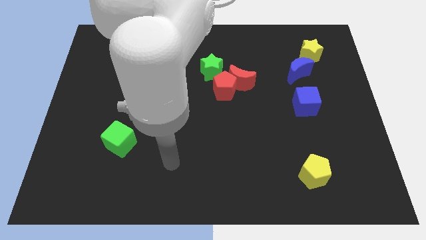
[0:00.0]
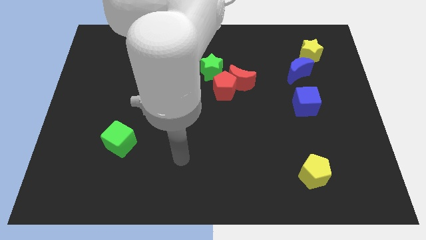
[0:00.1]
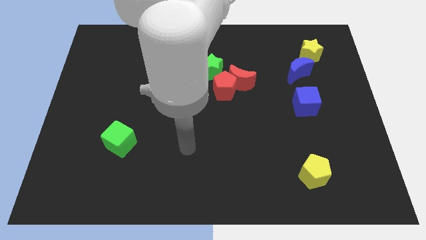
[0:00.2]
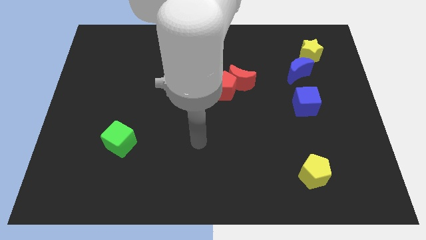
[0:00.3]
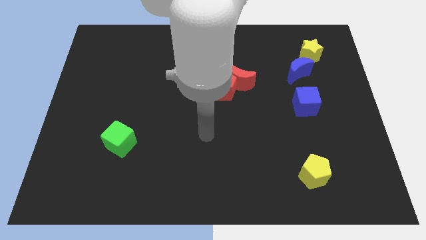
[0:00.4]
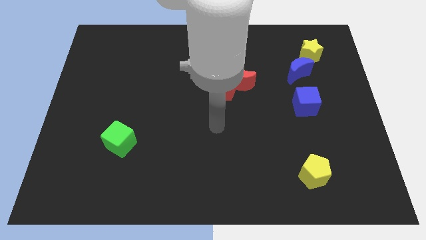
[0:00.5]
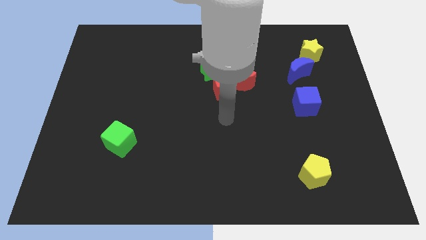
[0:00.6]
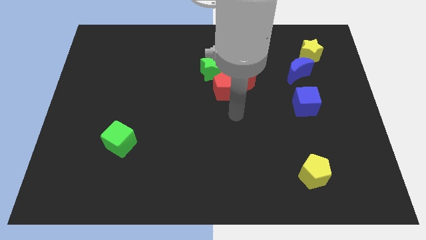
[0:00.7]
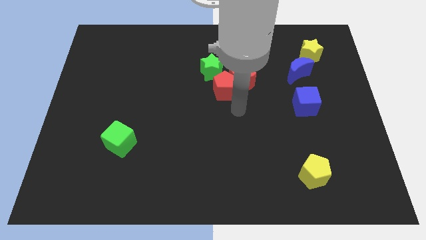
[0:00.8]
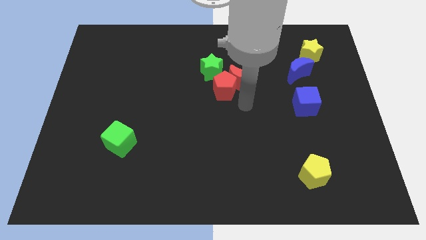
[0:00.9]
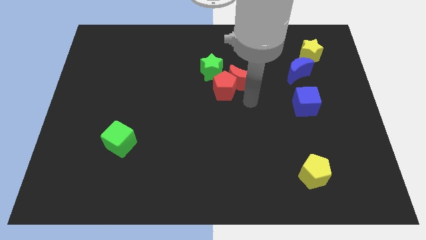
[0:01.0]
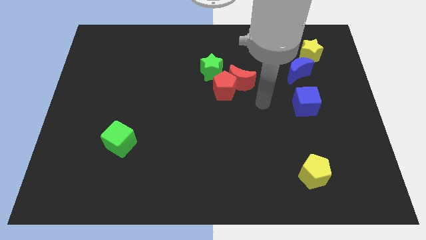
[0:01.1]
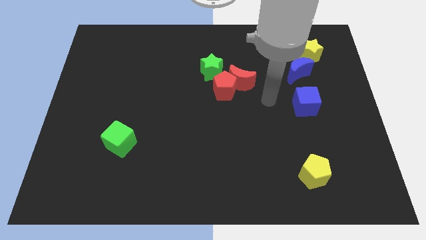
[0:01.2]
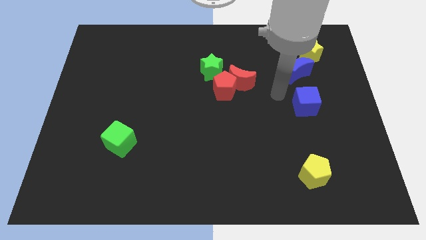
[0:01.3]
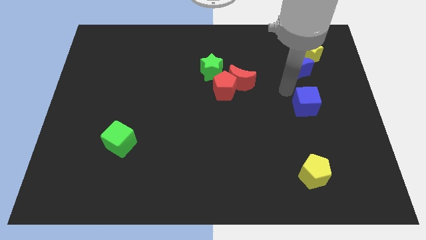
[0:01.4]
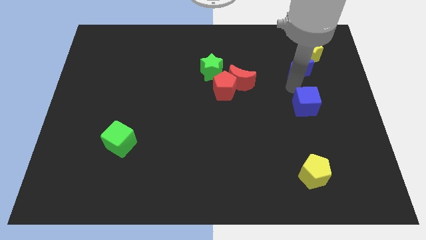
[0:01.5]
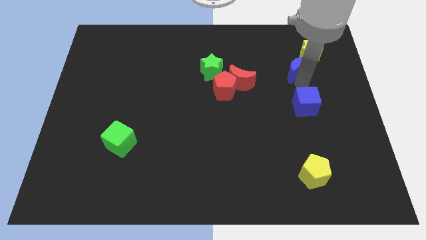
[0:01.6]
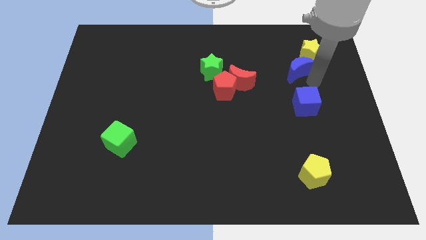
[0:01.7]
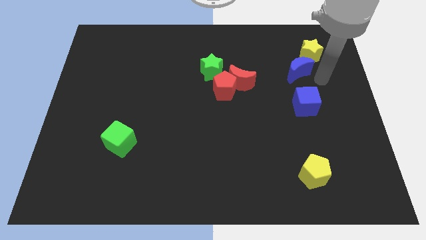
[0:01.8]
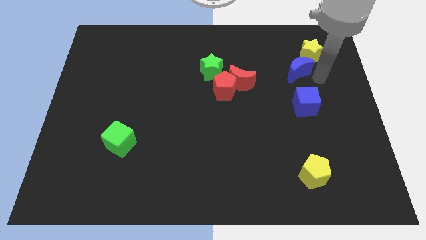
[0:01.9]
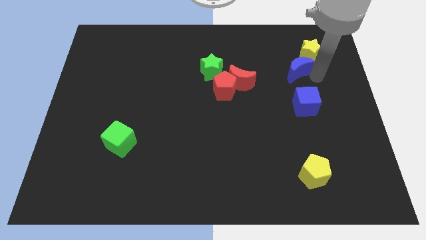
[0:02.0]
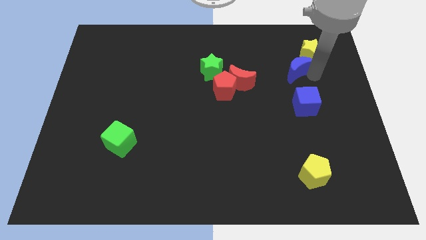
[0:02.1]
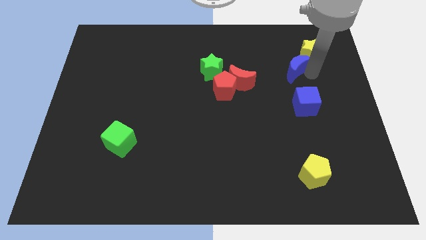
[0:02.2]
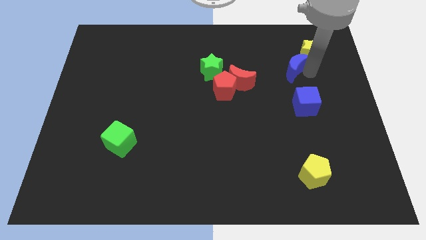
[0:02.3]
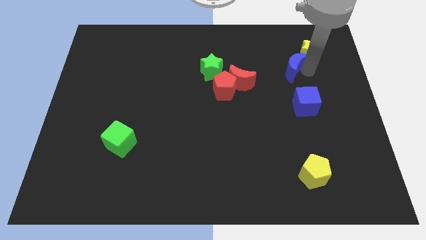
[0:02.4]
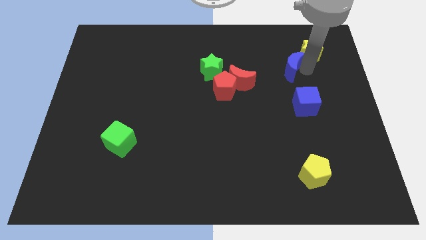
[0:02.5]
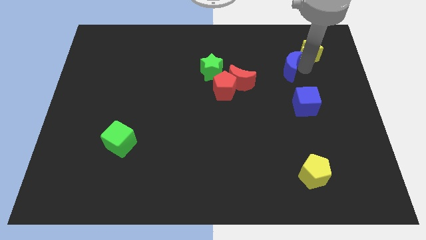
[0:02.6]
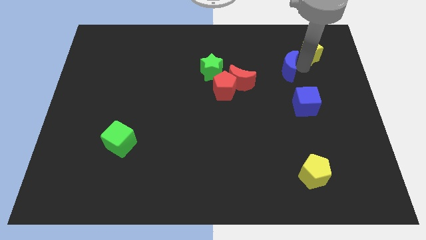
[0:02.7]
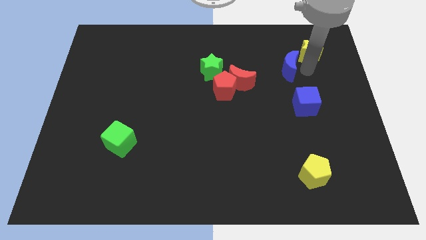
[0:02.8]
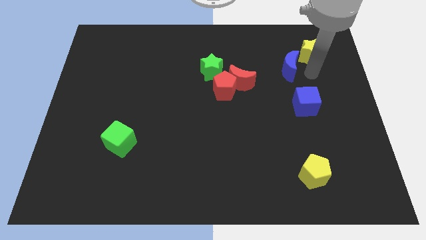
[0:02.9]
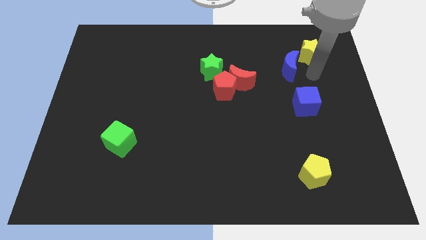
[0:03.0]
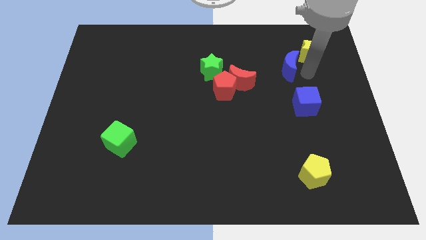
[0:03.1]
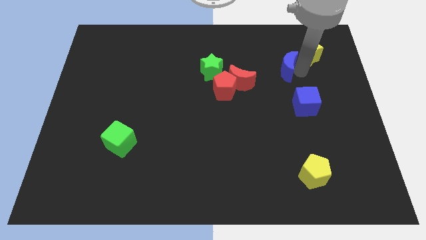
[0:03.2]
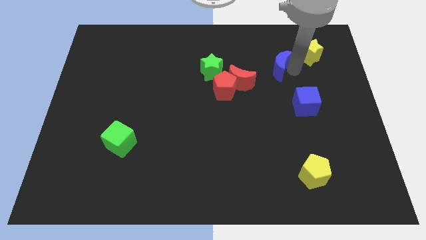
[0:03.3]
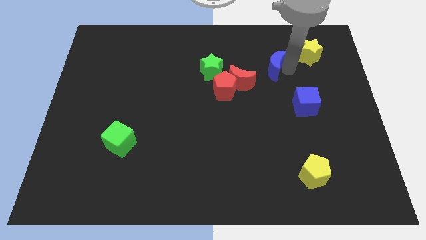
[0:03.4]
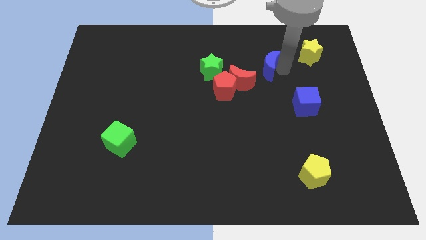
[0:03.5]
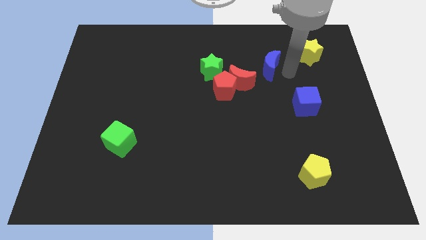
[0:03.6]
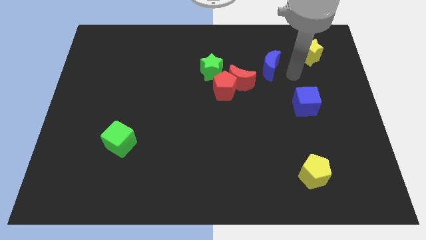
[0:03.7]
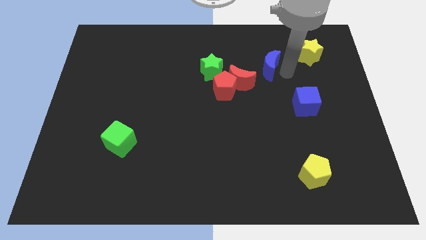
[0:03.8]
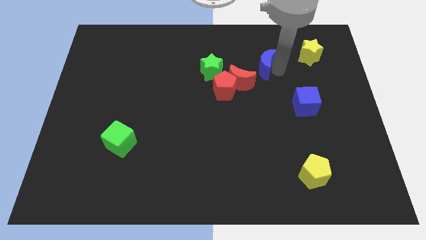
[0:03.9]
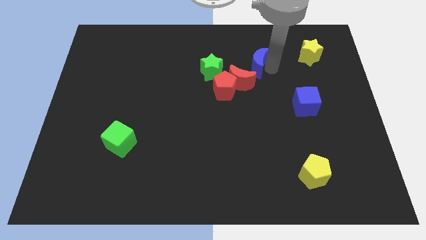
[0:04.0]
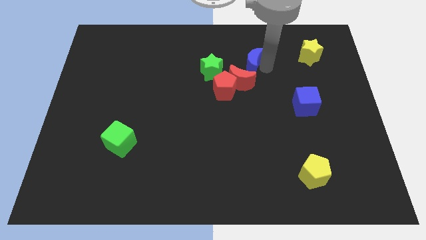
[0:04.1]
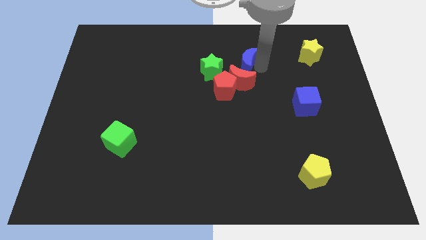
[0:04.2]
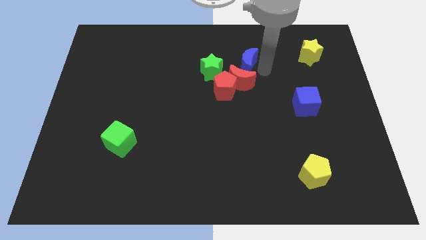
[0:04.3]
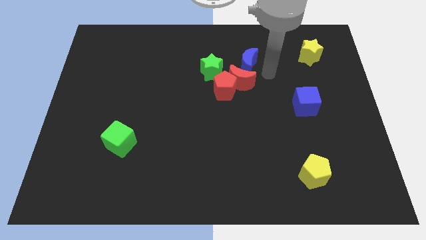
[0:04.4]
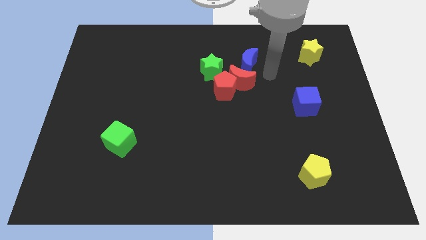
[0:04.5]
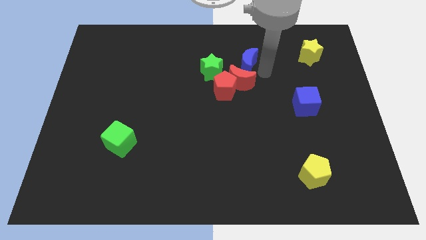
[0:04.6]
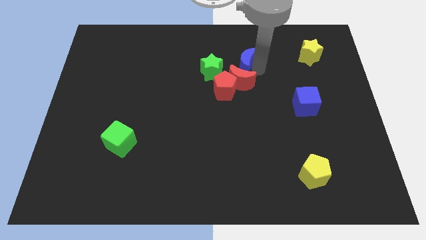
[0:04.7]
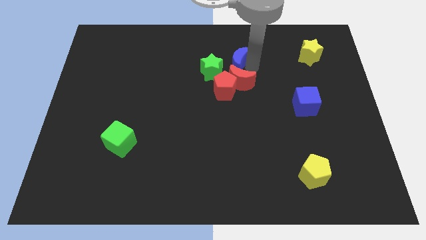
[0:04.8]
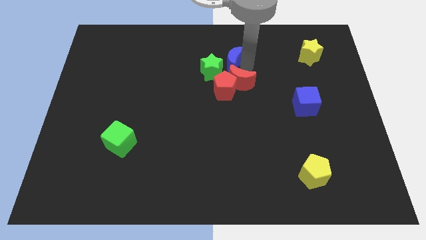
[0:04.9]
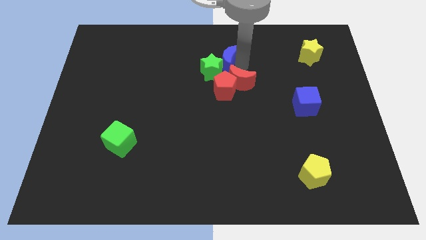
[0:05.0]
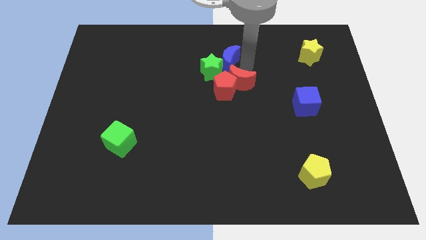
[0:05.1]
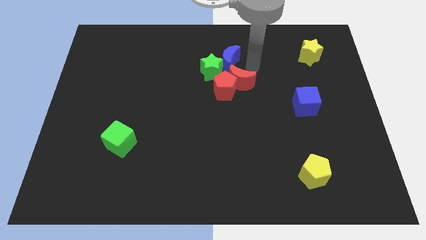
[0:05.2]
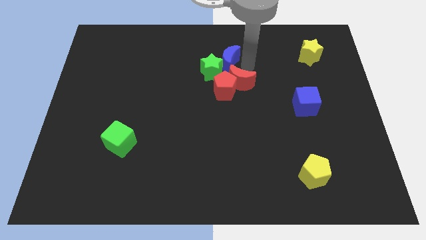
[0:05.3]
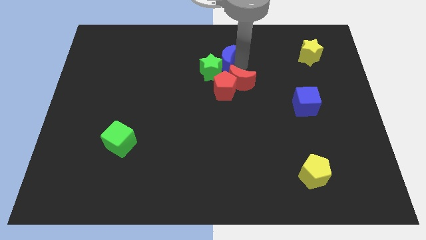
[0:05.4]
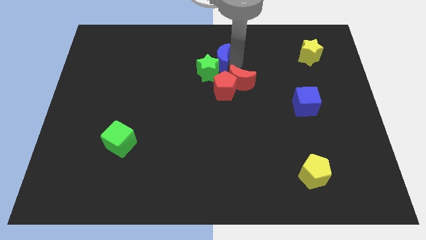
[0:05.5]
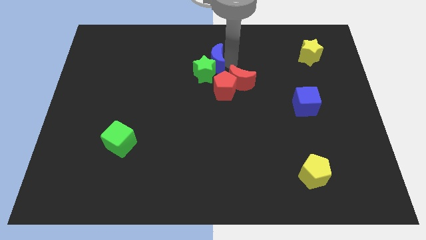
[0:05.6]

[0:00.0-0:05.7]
push the blue moon to the left

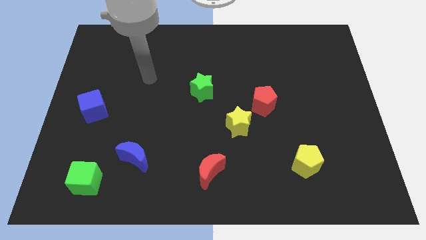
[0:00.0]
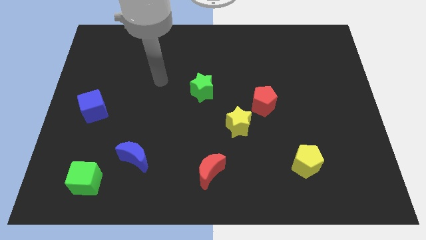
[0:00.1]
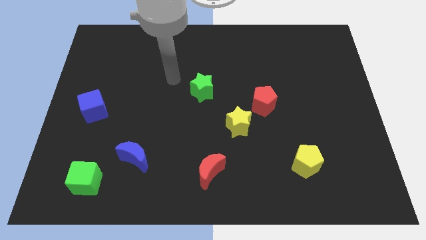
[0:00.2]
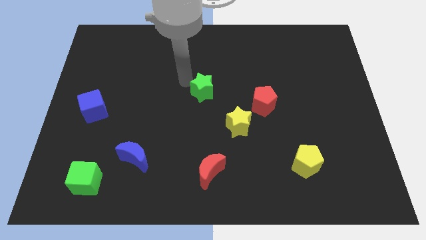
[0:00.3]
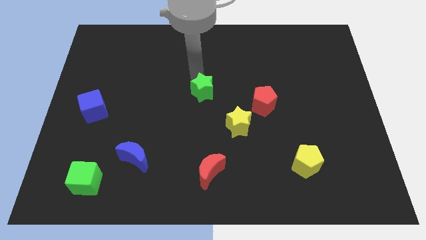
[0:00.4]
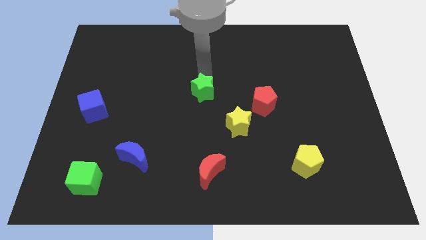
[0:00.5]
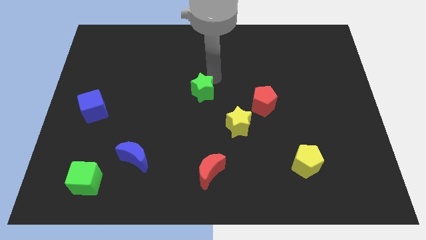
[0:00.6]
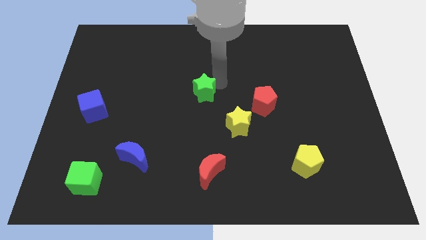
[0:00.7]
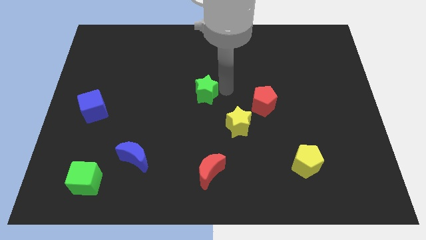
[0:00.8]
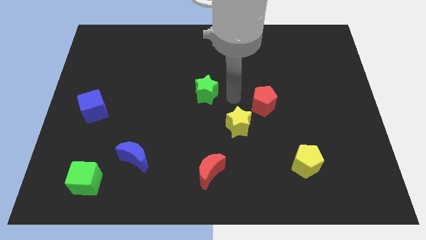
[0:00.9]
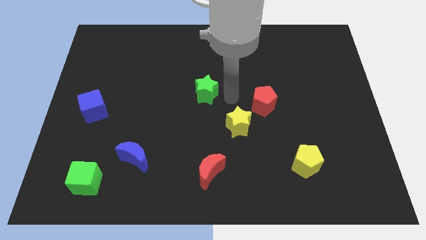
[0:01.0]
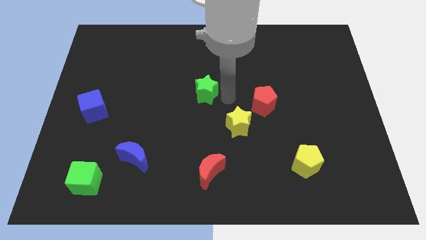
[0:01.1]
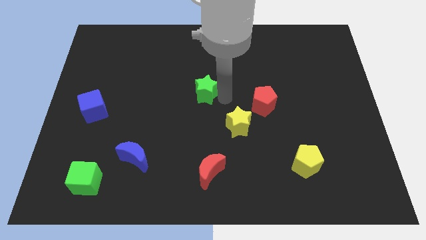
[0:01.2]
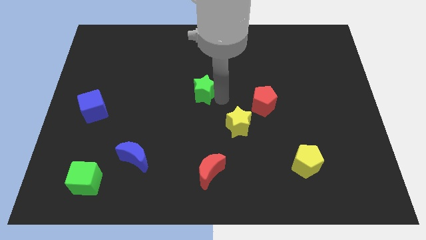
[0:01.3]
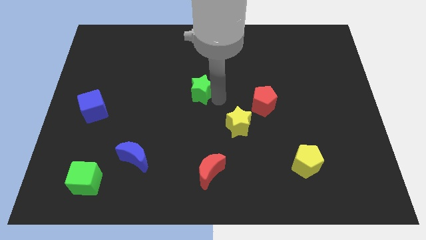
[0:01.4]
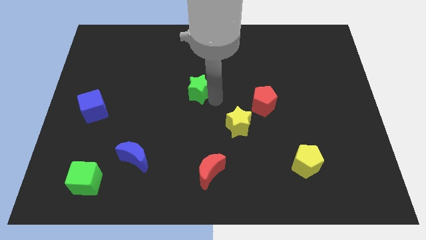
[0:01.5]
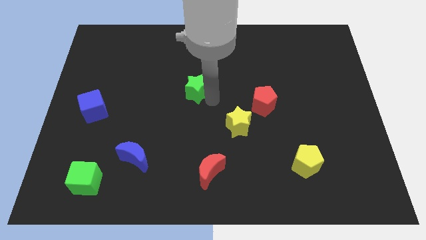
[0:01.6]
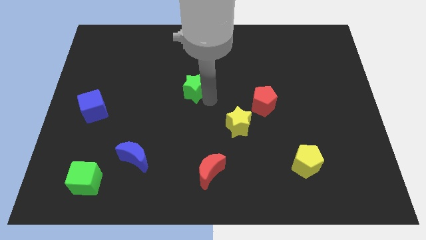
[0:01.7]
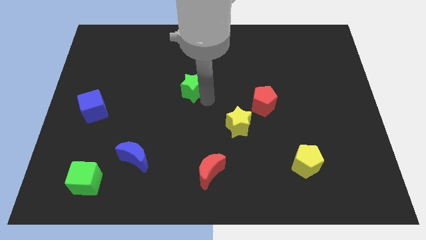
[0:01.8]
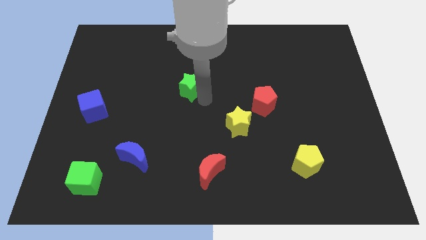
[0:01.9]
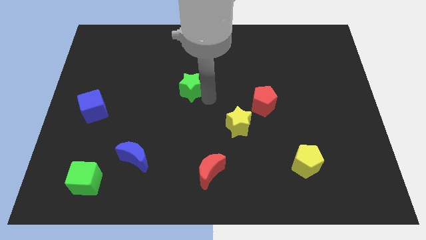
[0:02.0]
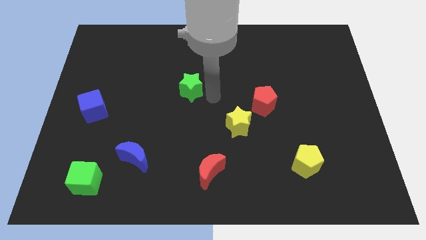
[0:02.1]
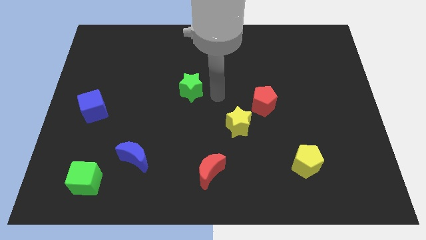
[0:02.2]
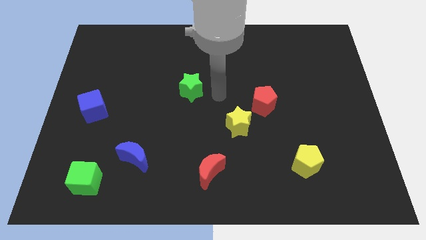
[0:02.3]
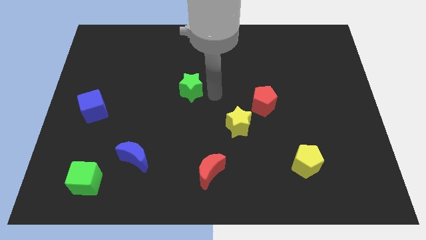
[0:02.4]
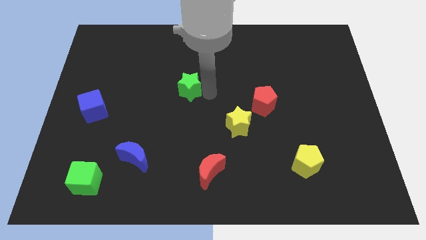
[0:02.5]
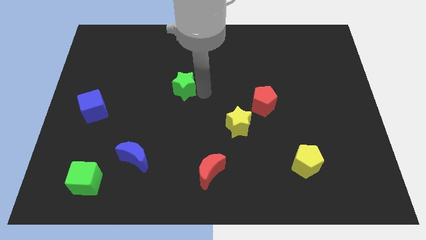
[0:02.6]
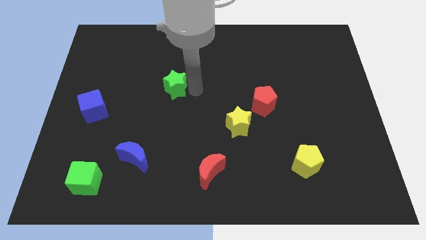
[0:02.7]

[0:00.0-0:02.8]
slightly push the green star left
